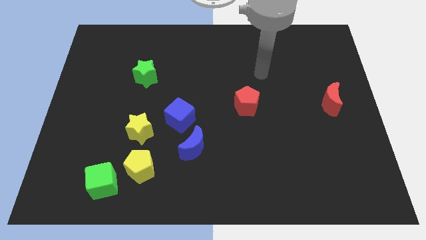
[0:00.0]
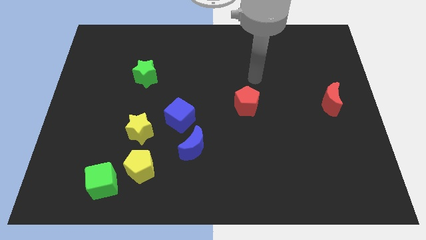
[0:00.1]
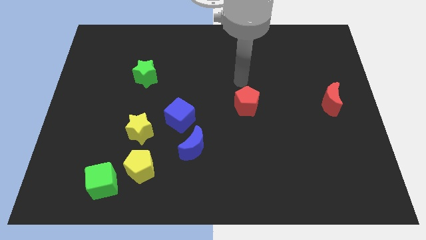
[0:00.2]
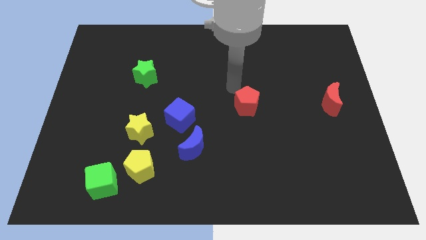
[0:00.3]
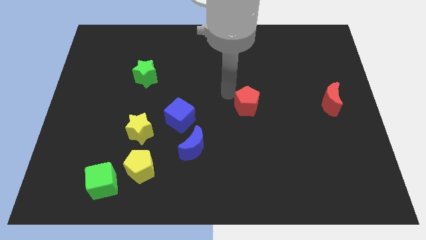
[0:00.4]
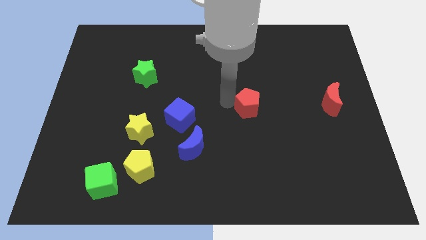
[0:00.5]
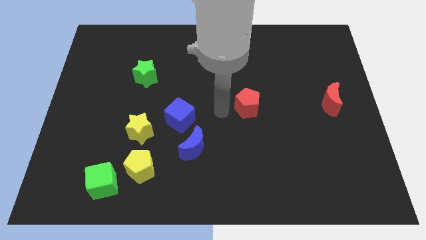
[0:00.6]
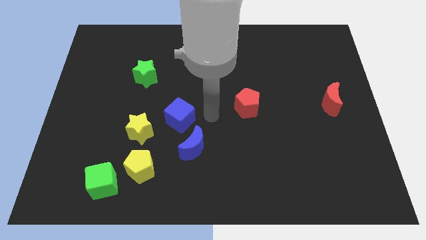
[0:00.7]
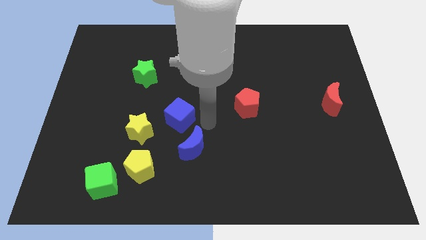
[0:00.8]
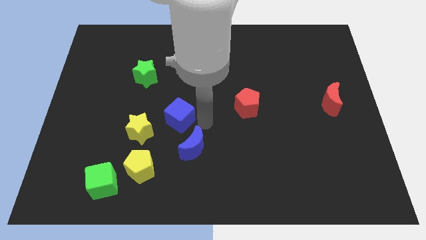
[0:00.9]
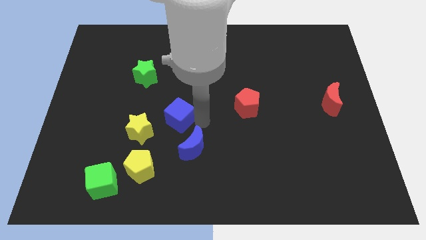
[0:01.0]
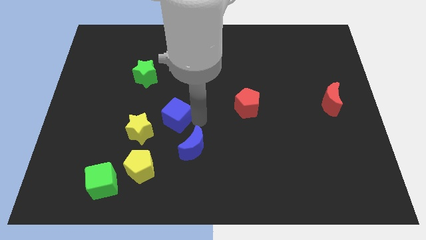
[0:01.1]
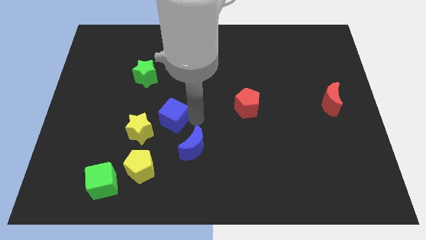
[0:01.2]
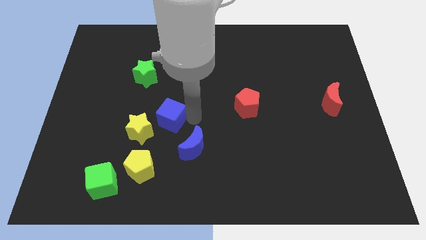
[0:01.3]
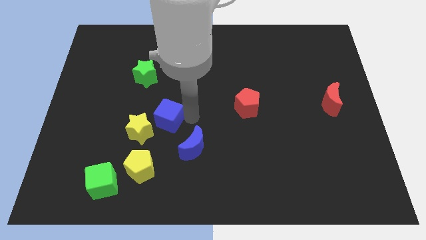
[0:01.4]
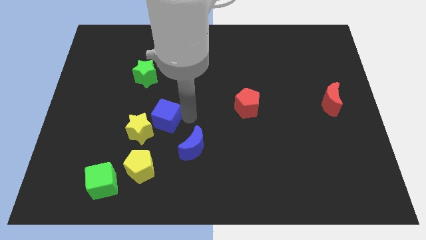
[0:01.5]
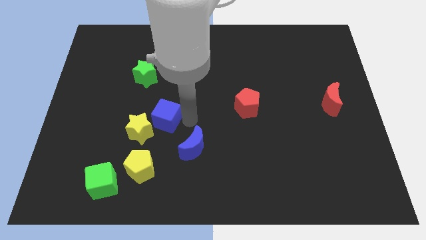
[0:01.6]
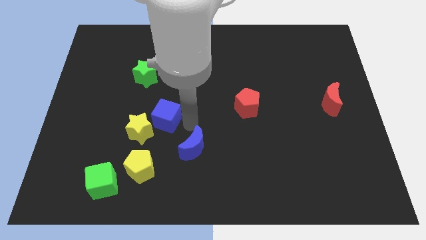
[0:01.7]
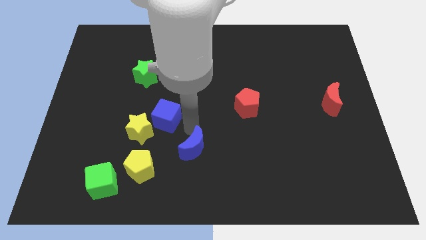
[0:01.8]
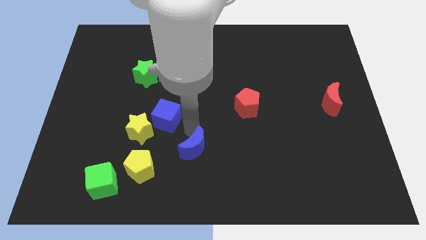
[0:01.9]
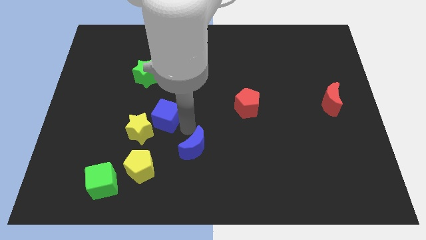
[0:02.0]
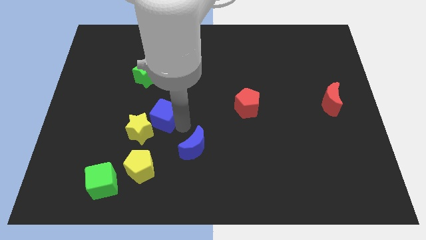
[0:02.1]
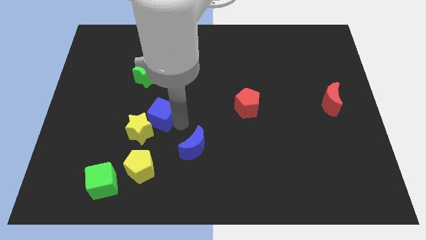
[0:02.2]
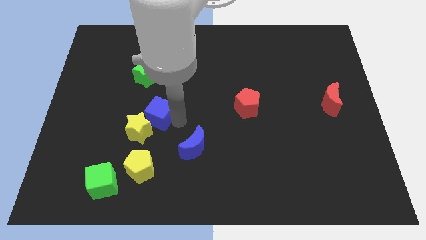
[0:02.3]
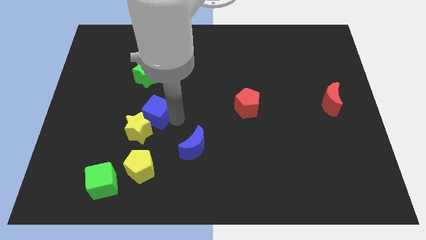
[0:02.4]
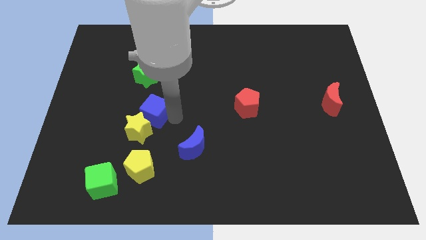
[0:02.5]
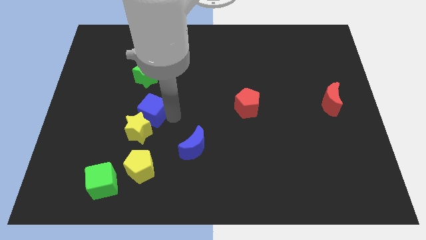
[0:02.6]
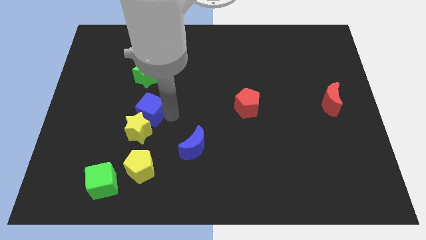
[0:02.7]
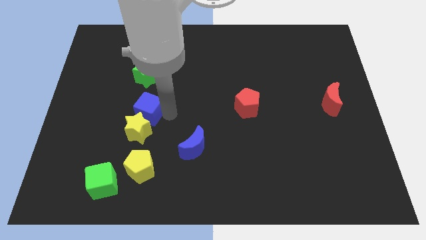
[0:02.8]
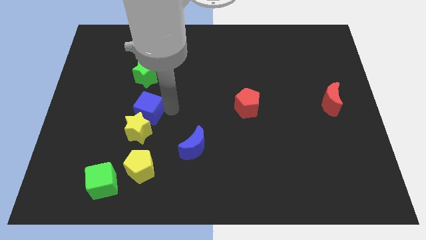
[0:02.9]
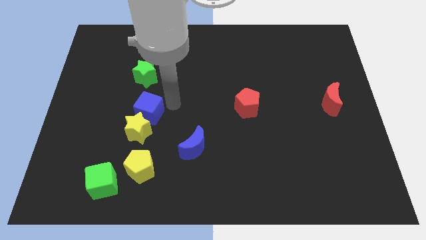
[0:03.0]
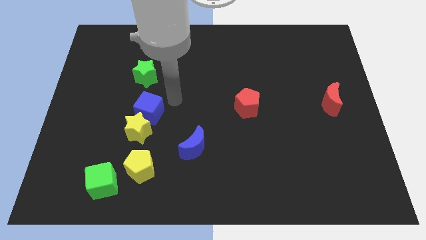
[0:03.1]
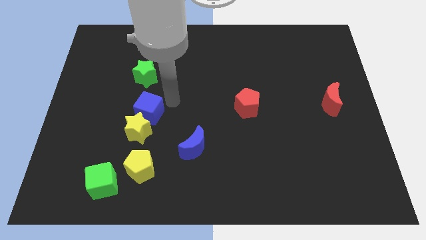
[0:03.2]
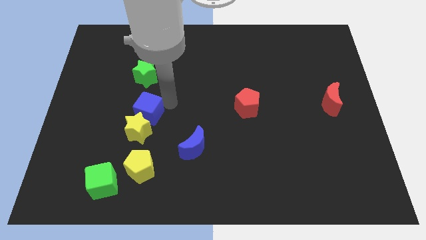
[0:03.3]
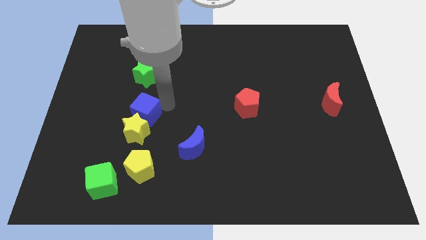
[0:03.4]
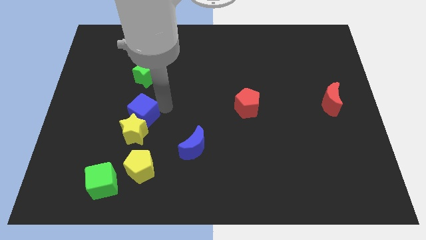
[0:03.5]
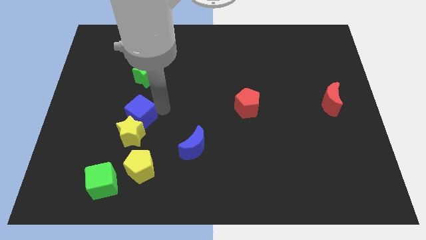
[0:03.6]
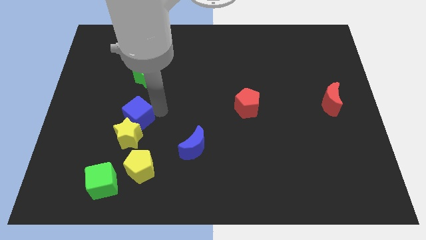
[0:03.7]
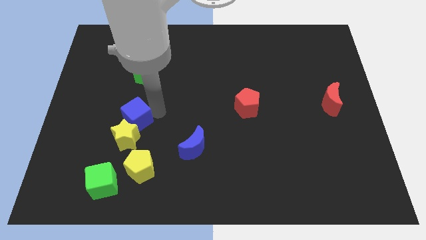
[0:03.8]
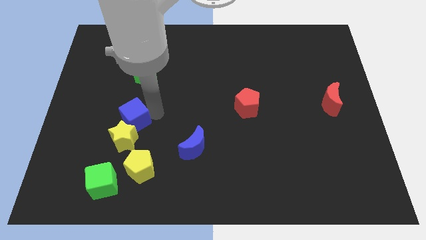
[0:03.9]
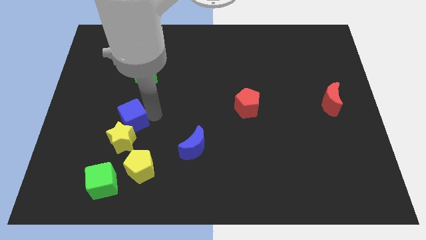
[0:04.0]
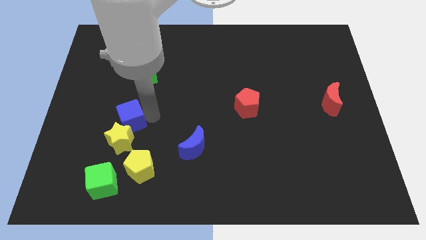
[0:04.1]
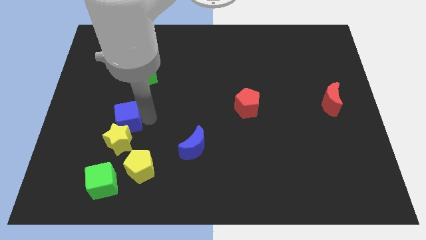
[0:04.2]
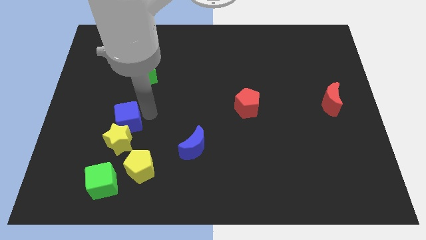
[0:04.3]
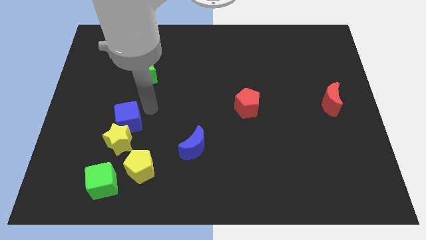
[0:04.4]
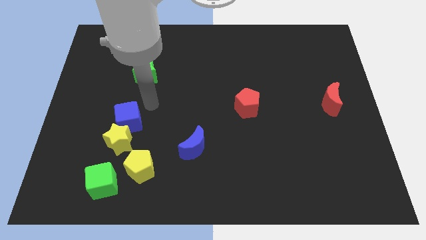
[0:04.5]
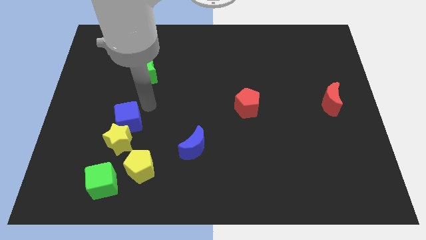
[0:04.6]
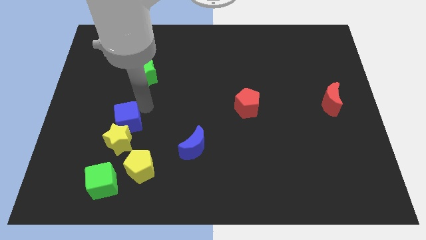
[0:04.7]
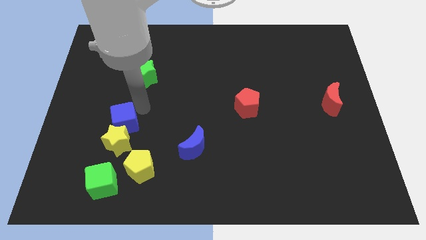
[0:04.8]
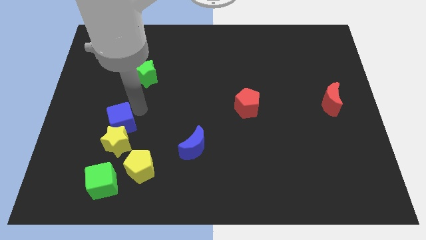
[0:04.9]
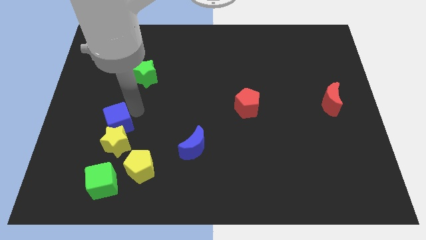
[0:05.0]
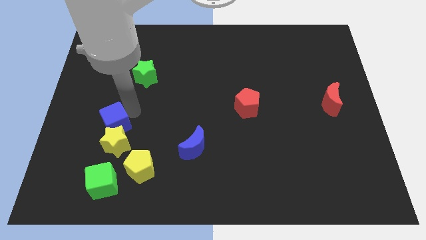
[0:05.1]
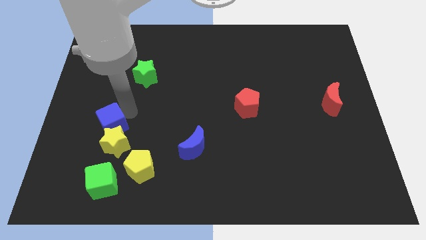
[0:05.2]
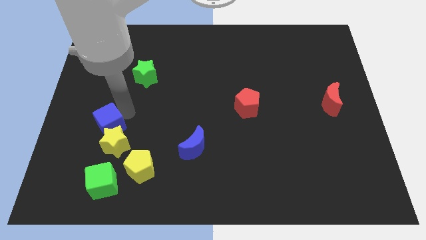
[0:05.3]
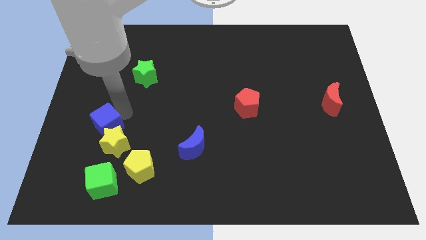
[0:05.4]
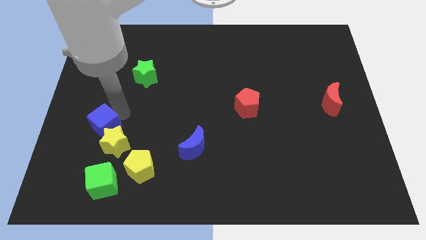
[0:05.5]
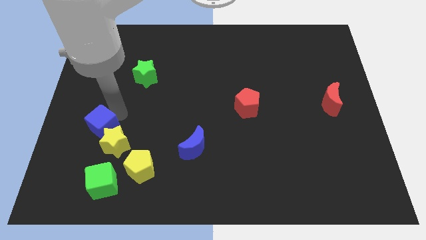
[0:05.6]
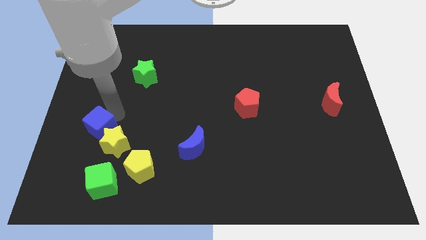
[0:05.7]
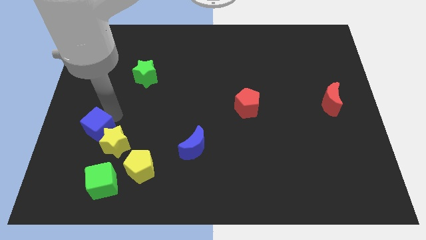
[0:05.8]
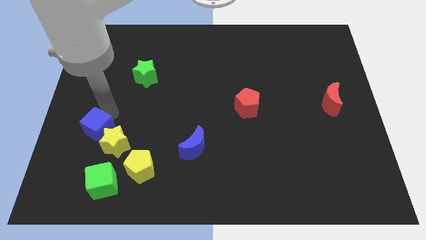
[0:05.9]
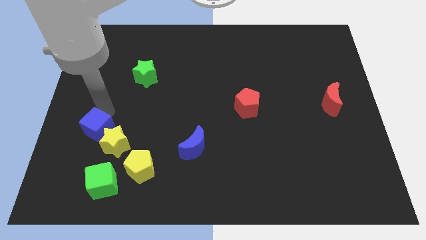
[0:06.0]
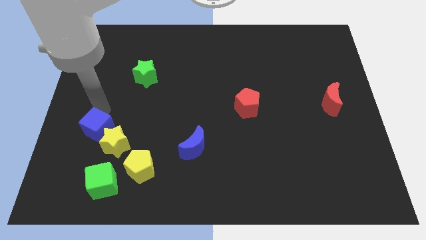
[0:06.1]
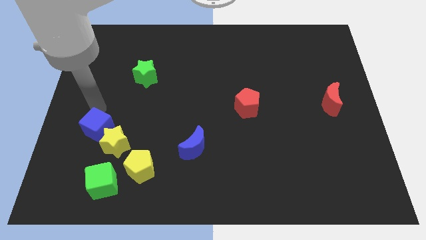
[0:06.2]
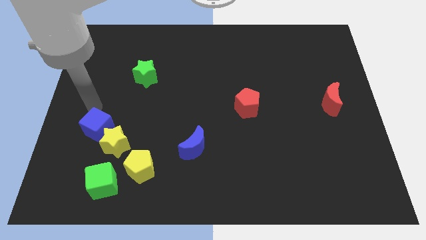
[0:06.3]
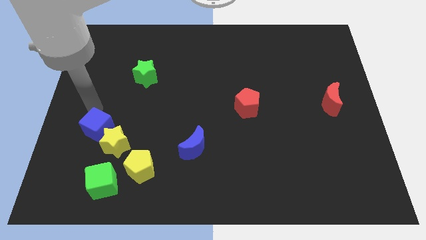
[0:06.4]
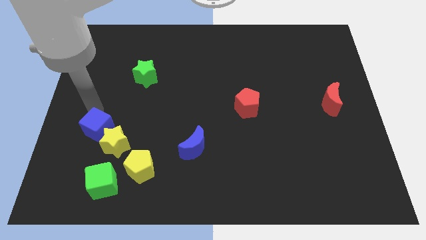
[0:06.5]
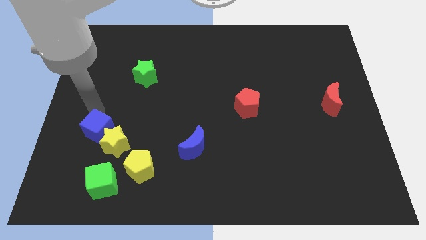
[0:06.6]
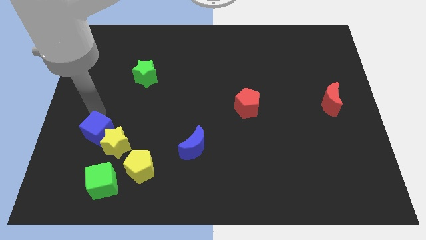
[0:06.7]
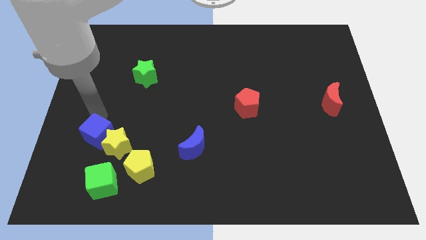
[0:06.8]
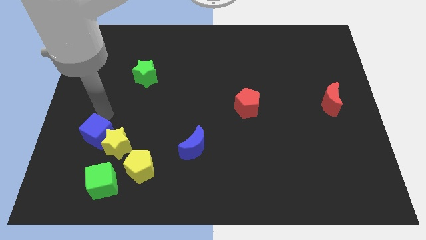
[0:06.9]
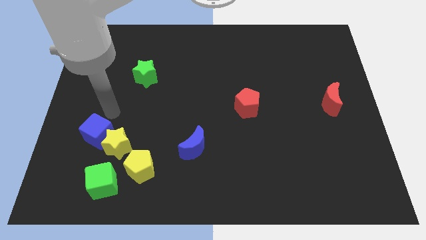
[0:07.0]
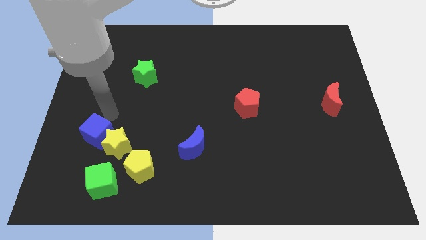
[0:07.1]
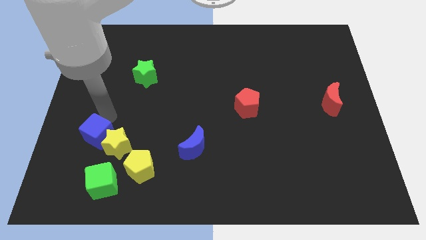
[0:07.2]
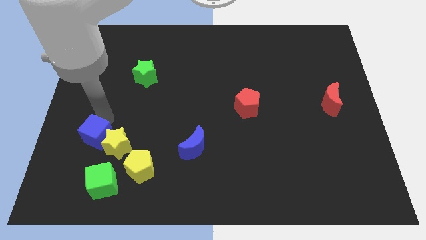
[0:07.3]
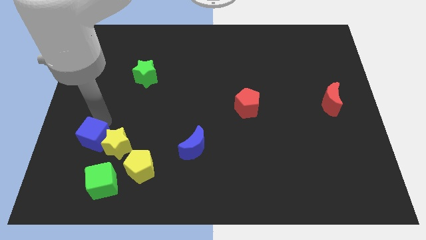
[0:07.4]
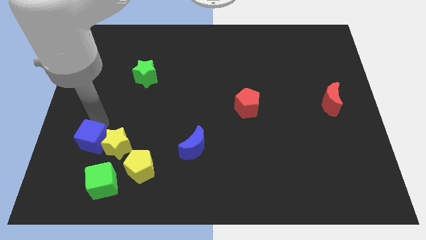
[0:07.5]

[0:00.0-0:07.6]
put the blue cube to the top left side of the green cube
